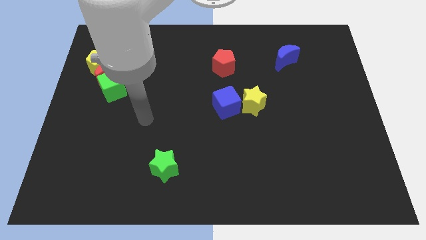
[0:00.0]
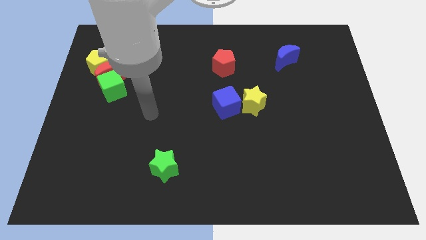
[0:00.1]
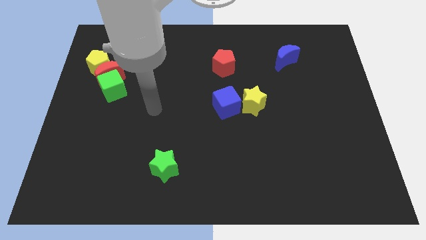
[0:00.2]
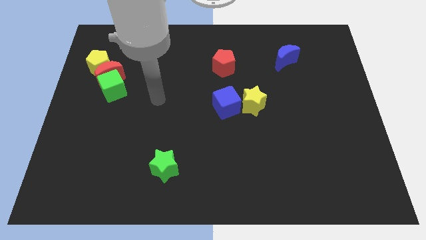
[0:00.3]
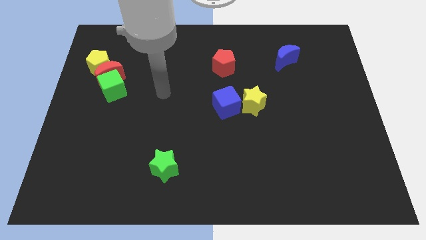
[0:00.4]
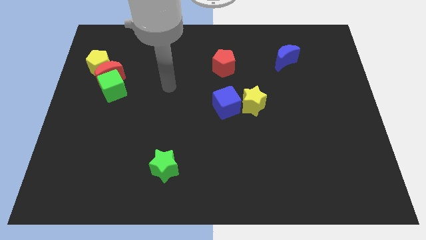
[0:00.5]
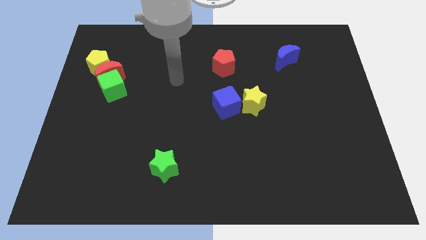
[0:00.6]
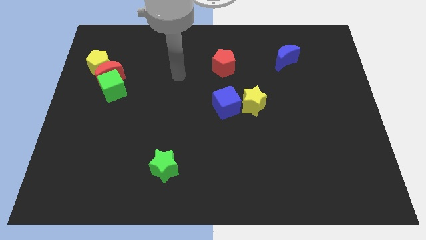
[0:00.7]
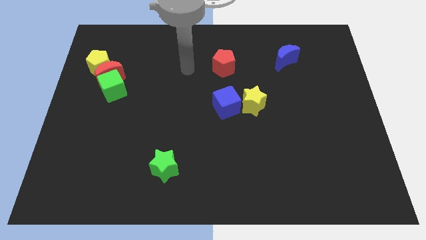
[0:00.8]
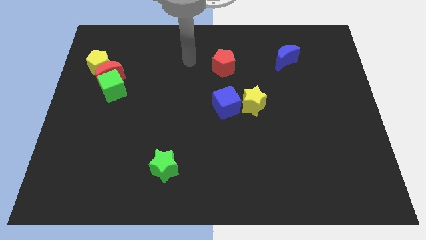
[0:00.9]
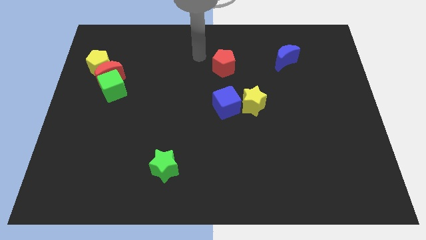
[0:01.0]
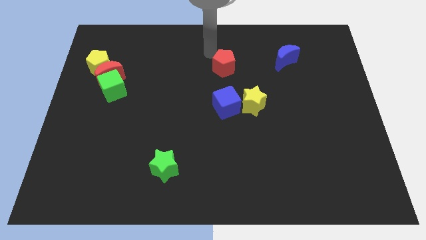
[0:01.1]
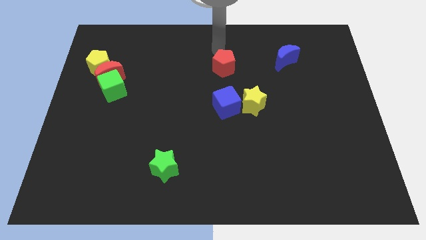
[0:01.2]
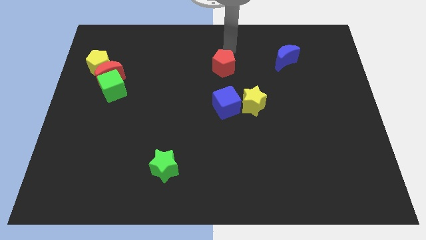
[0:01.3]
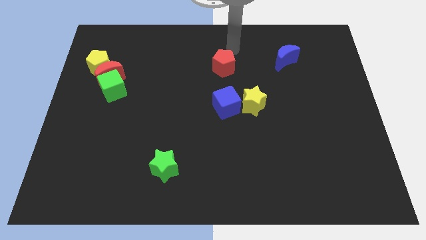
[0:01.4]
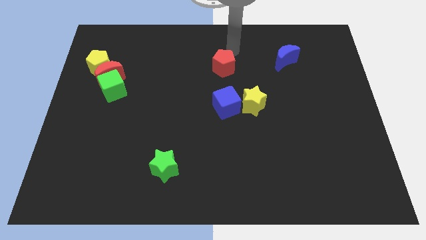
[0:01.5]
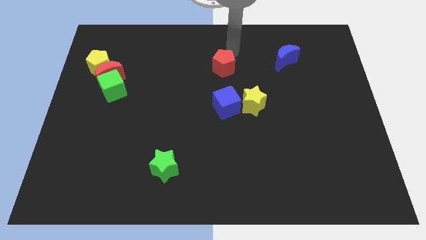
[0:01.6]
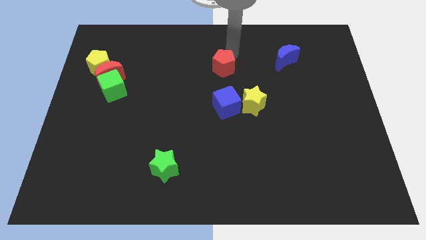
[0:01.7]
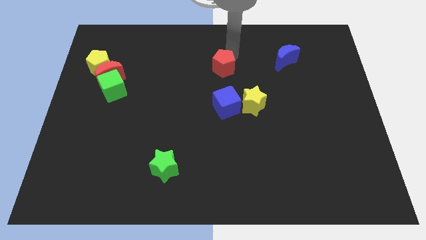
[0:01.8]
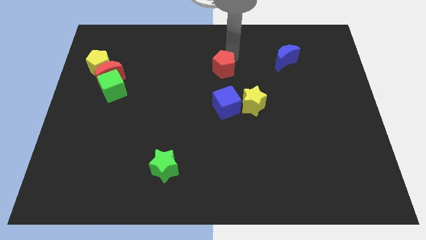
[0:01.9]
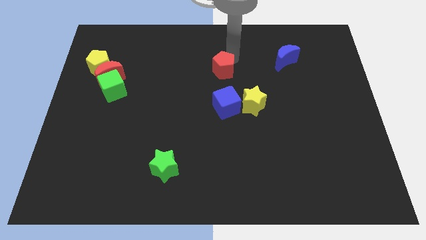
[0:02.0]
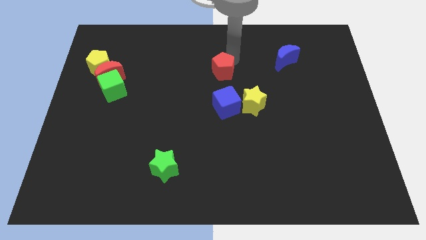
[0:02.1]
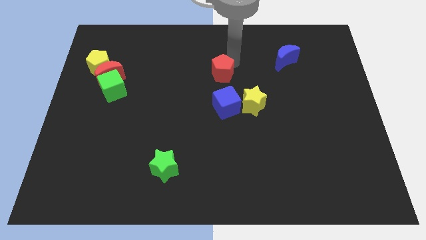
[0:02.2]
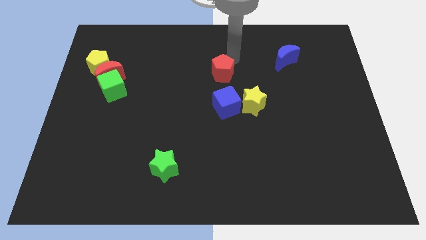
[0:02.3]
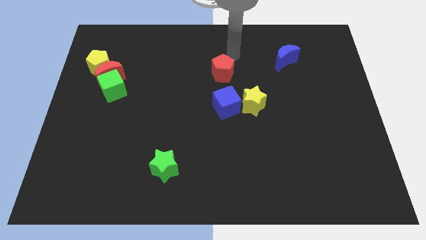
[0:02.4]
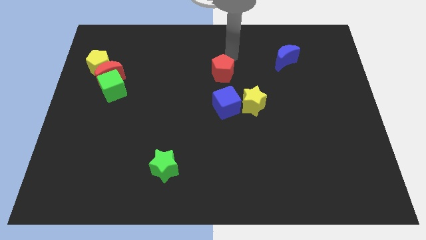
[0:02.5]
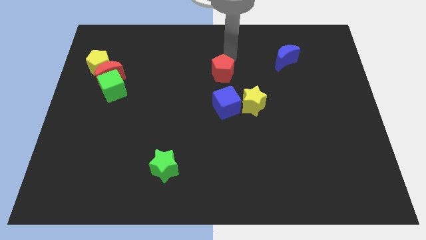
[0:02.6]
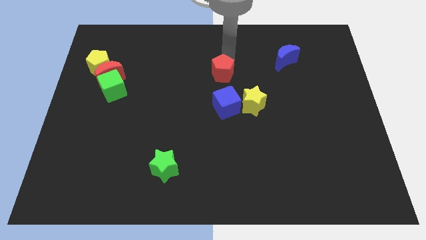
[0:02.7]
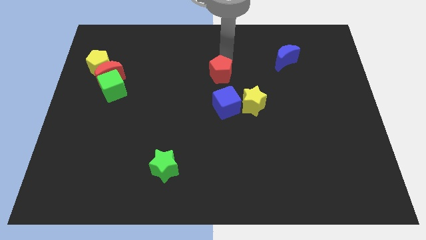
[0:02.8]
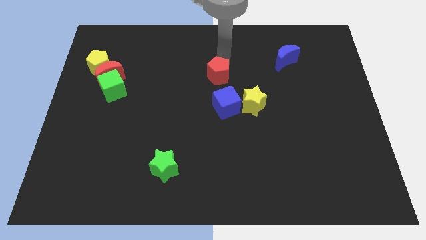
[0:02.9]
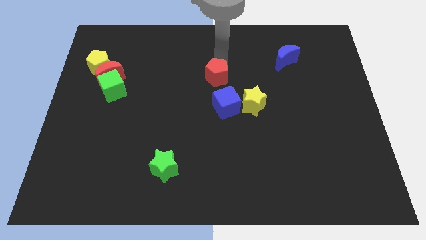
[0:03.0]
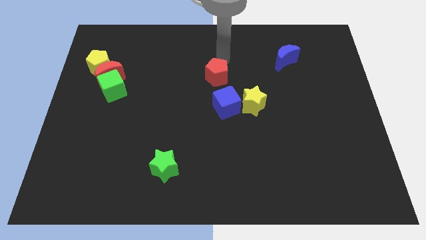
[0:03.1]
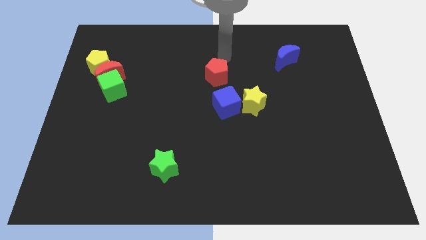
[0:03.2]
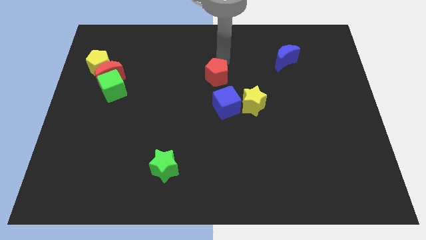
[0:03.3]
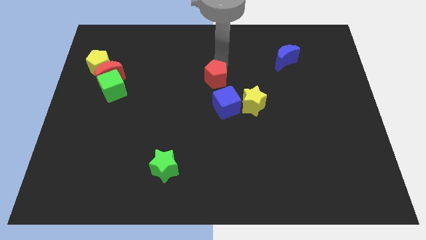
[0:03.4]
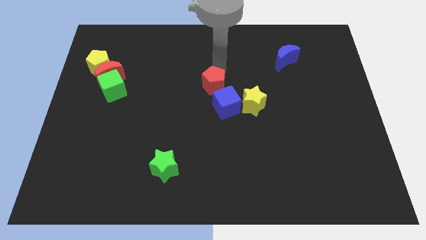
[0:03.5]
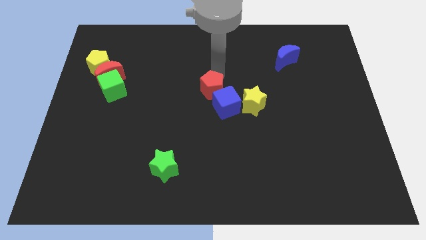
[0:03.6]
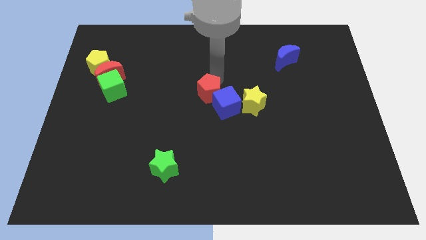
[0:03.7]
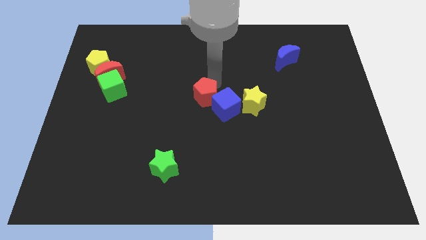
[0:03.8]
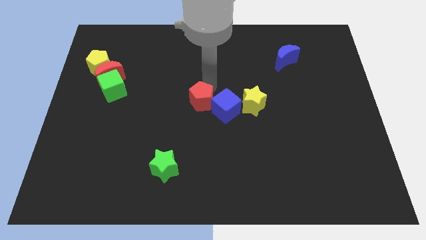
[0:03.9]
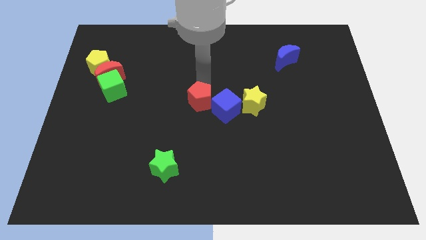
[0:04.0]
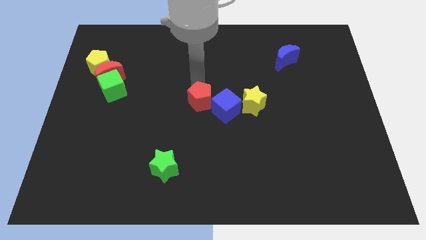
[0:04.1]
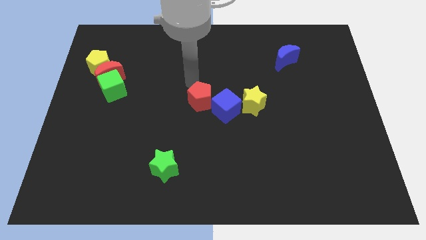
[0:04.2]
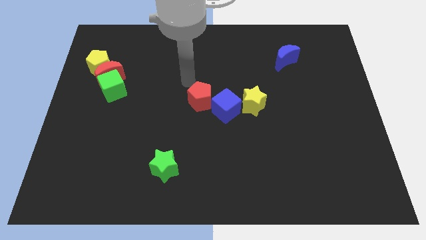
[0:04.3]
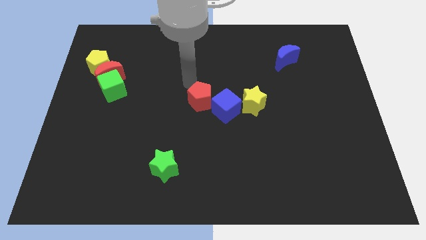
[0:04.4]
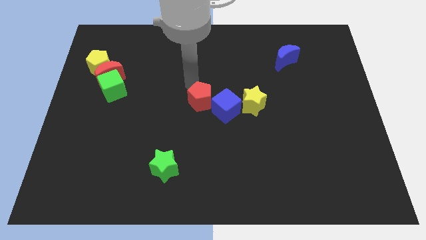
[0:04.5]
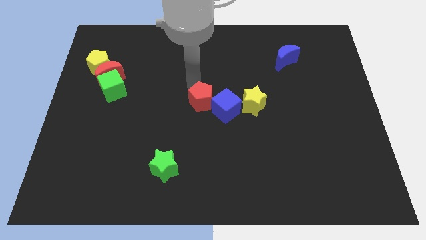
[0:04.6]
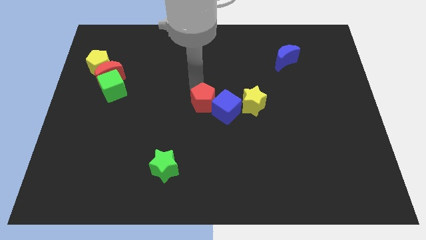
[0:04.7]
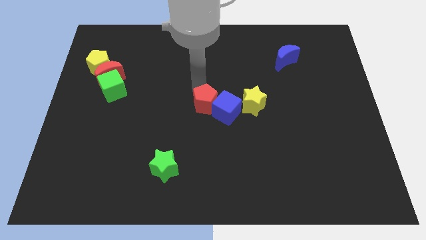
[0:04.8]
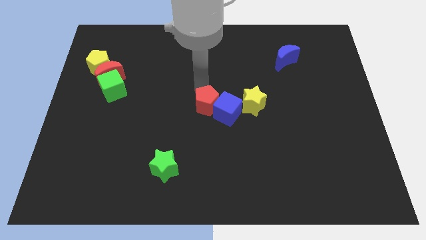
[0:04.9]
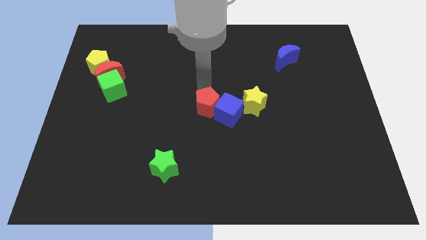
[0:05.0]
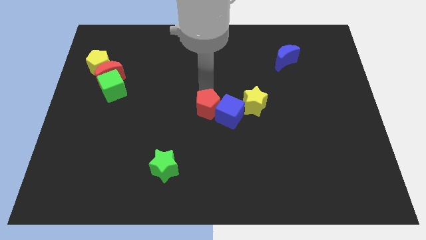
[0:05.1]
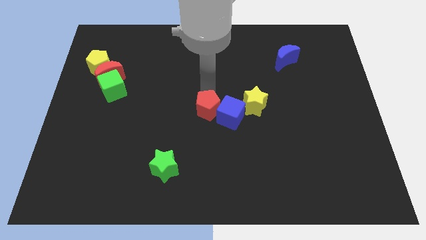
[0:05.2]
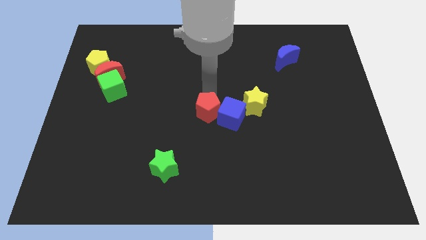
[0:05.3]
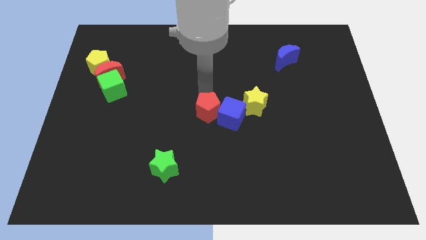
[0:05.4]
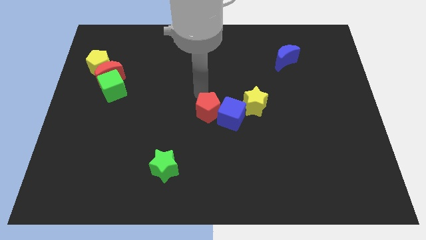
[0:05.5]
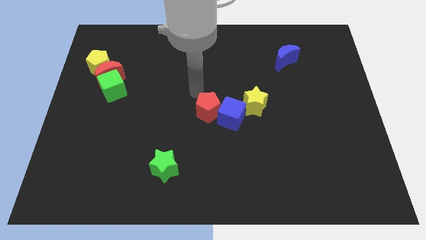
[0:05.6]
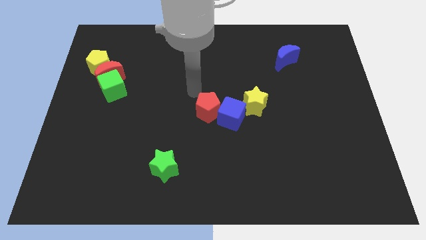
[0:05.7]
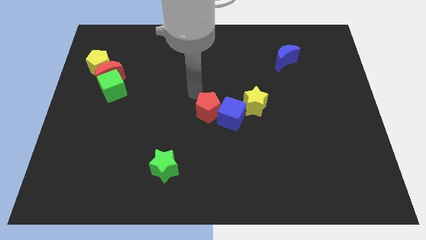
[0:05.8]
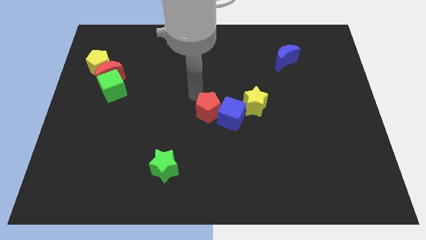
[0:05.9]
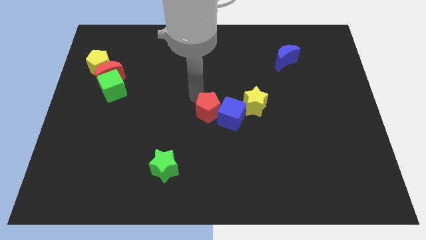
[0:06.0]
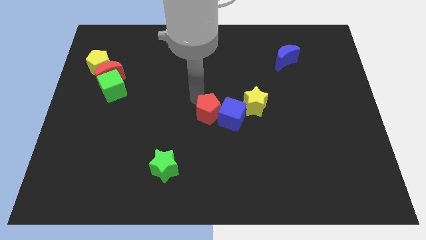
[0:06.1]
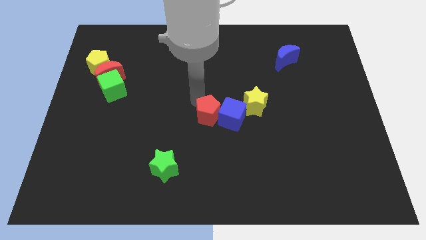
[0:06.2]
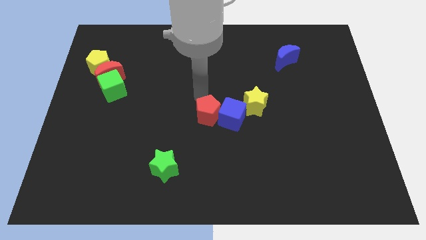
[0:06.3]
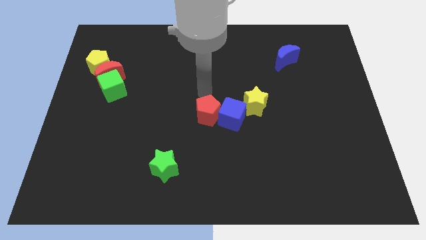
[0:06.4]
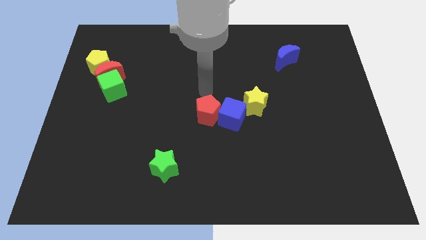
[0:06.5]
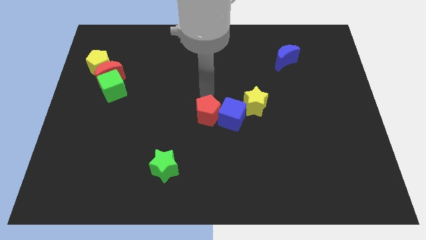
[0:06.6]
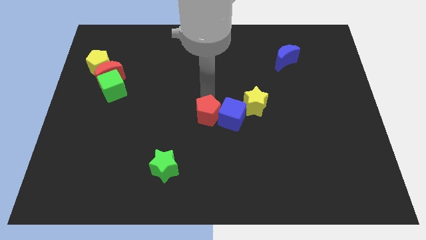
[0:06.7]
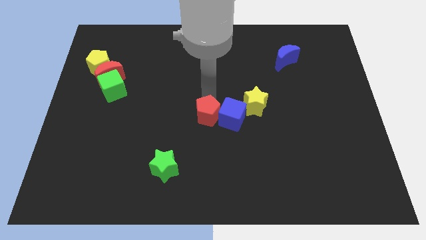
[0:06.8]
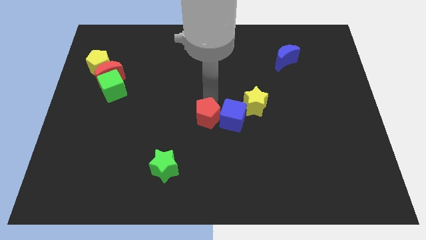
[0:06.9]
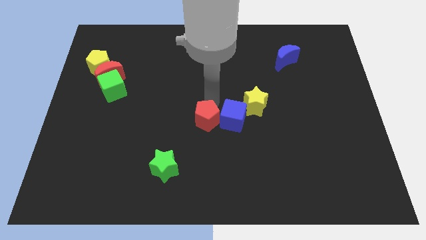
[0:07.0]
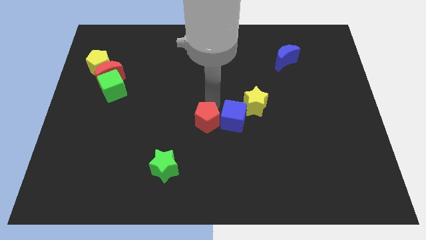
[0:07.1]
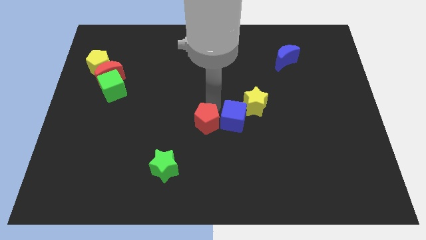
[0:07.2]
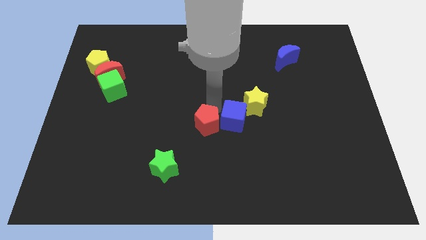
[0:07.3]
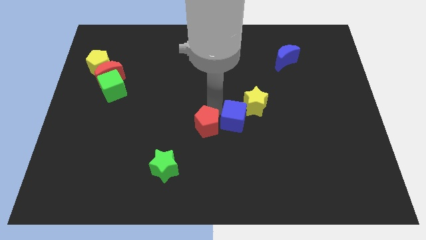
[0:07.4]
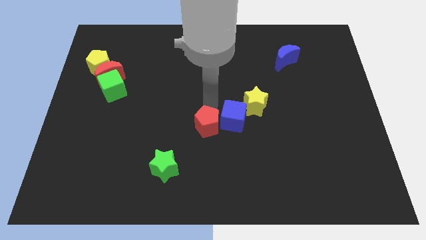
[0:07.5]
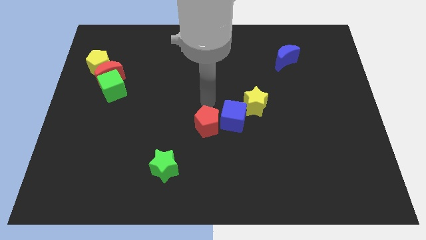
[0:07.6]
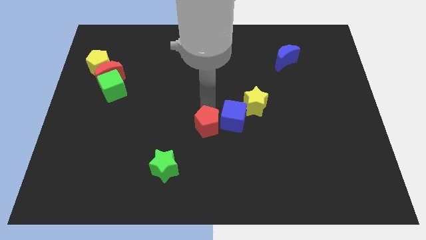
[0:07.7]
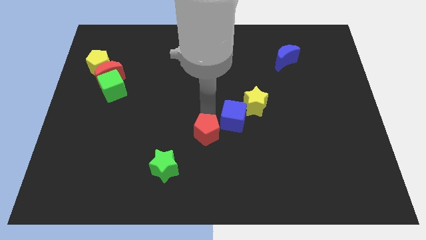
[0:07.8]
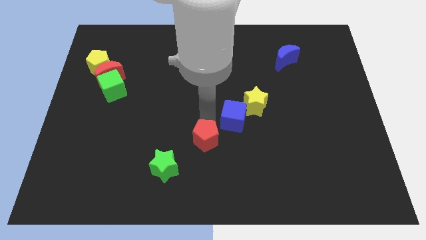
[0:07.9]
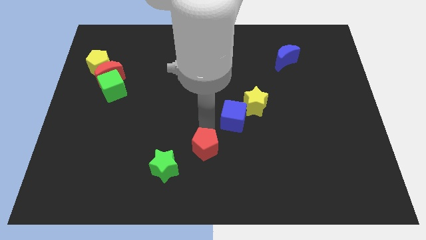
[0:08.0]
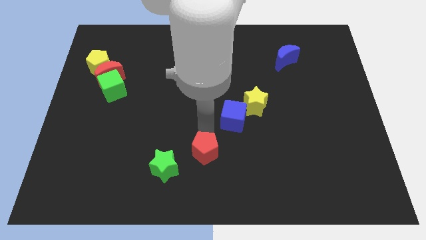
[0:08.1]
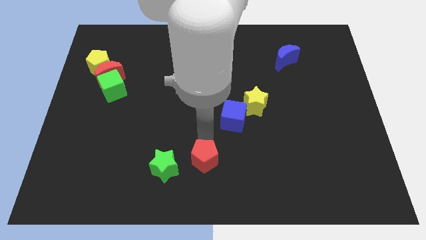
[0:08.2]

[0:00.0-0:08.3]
slide the red pentagon to the bottom
